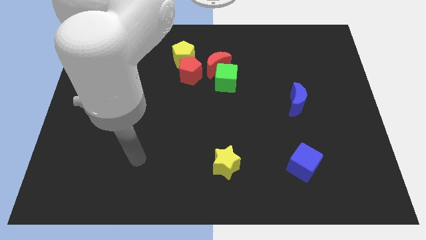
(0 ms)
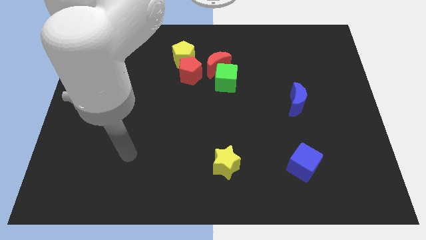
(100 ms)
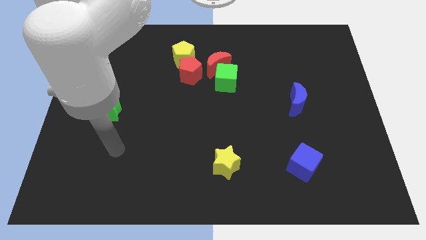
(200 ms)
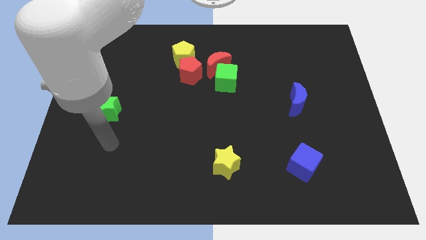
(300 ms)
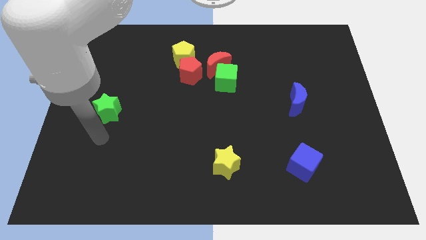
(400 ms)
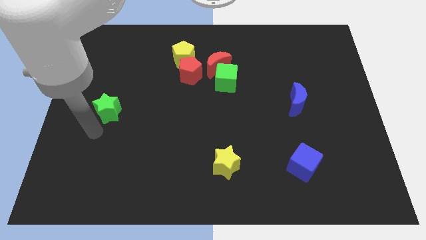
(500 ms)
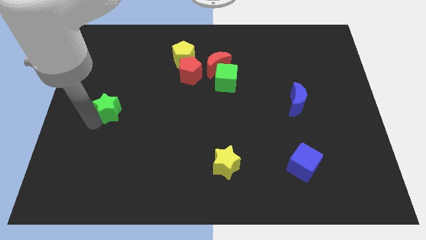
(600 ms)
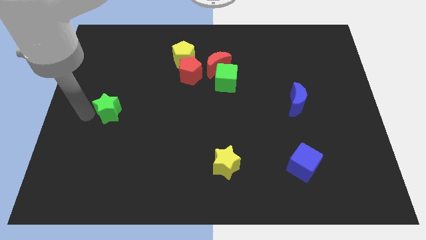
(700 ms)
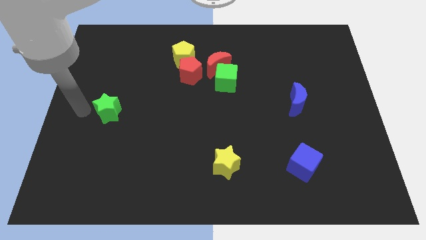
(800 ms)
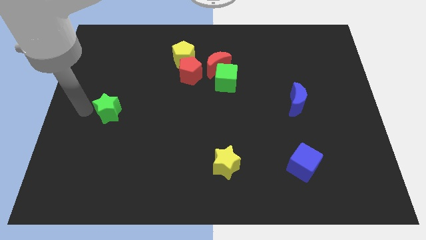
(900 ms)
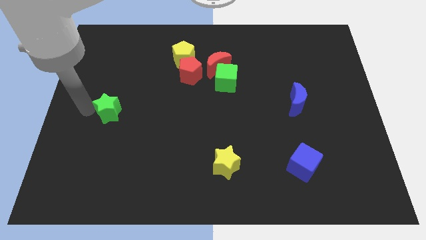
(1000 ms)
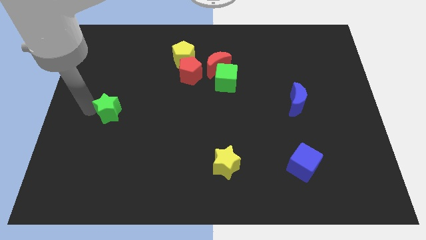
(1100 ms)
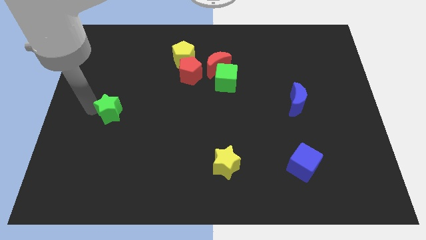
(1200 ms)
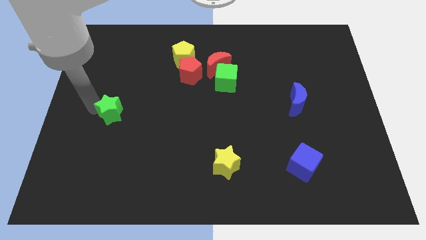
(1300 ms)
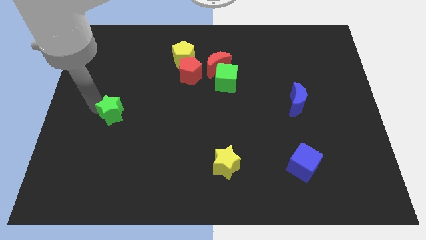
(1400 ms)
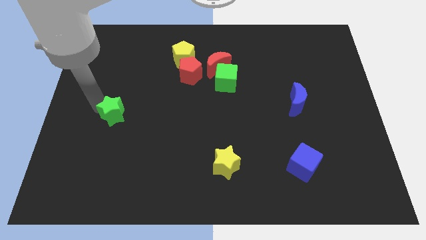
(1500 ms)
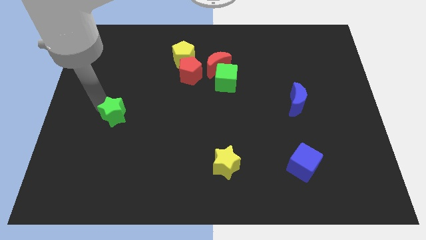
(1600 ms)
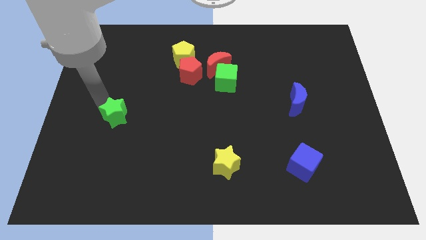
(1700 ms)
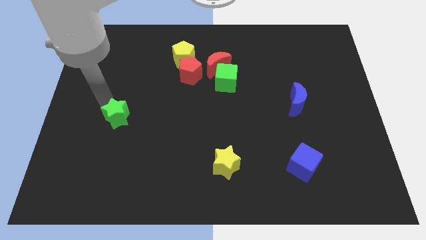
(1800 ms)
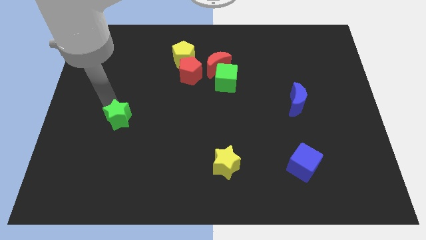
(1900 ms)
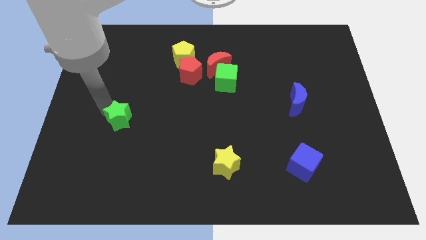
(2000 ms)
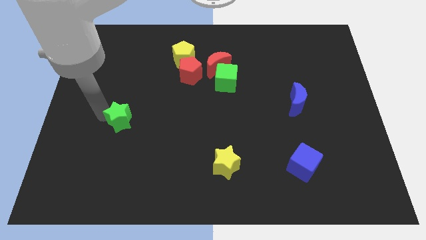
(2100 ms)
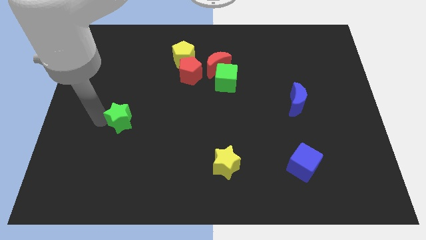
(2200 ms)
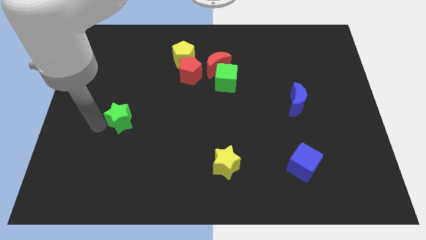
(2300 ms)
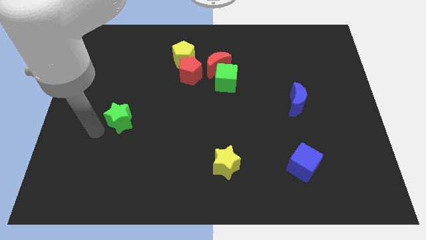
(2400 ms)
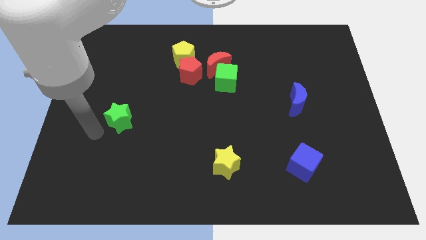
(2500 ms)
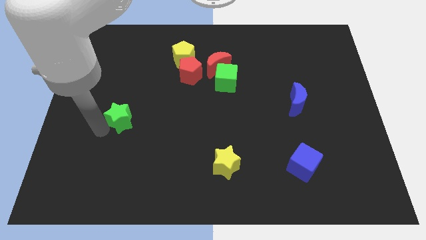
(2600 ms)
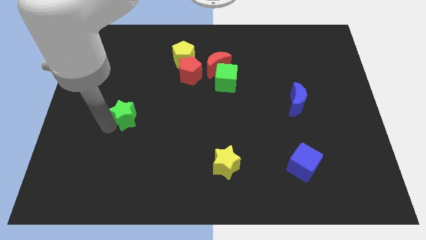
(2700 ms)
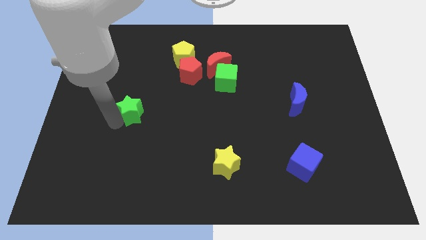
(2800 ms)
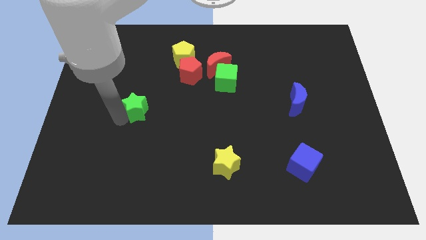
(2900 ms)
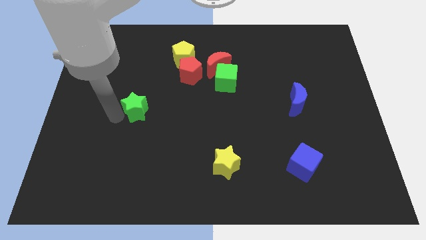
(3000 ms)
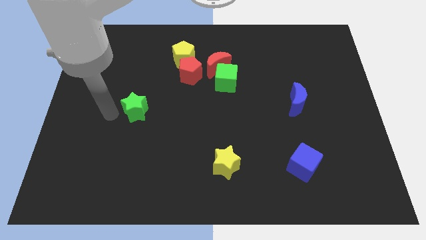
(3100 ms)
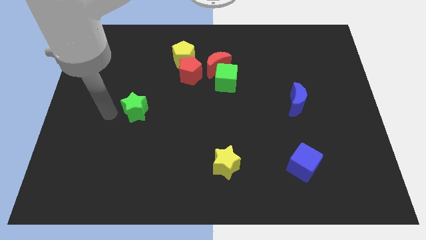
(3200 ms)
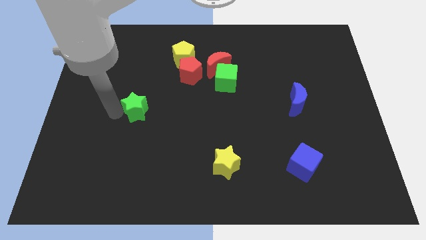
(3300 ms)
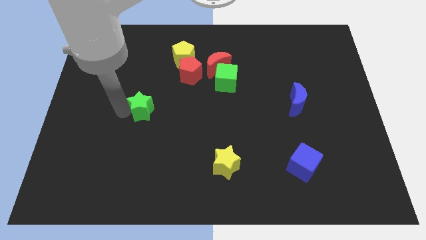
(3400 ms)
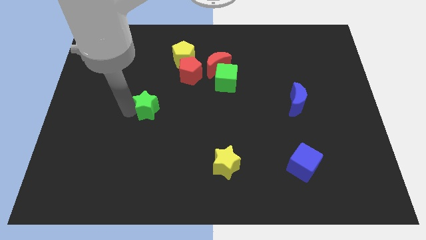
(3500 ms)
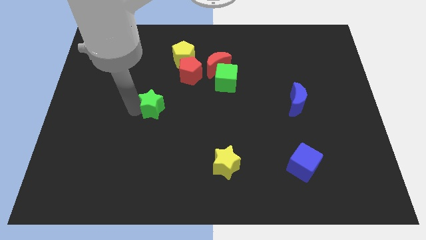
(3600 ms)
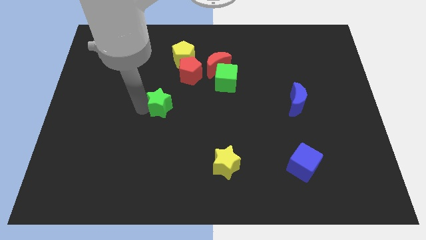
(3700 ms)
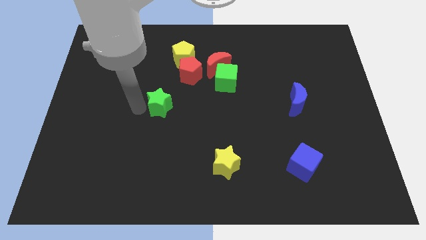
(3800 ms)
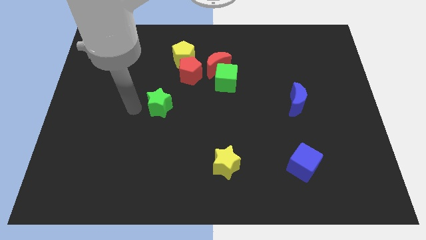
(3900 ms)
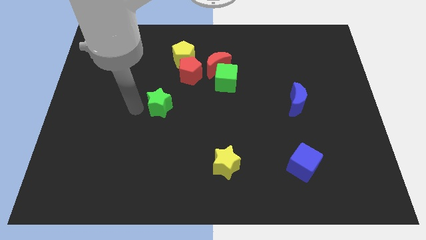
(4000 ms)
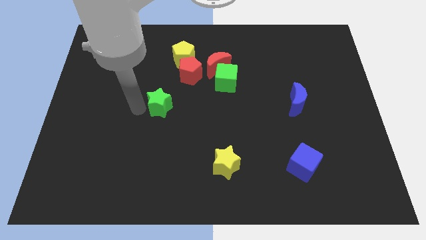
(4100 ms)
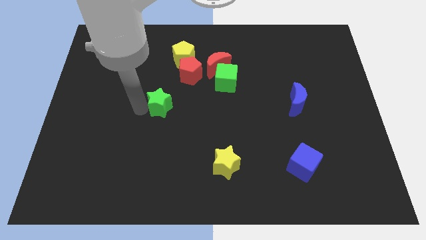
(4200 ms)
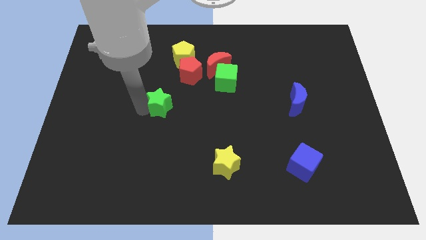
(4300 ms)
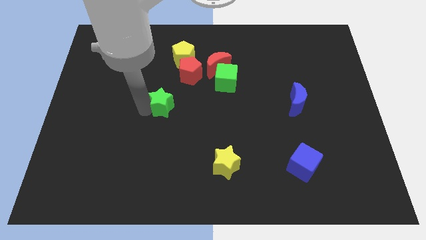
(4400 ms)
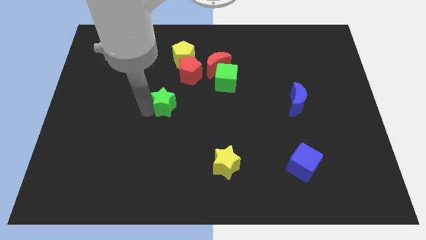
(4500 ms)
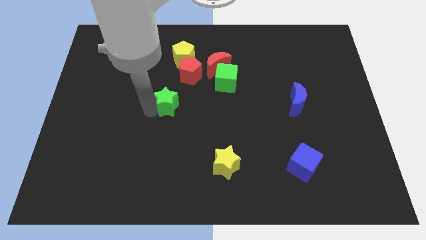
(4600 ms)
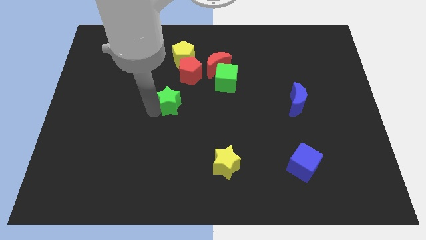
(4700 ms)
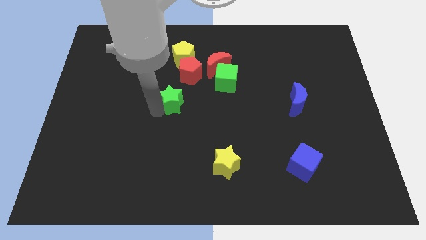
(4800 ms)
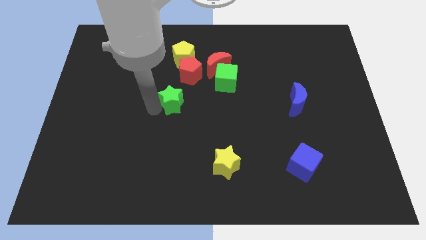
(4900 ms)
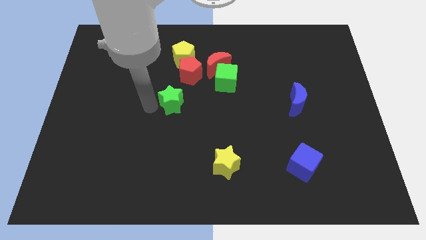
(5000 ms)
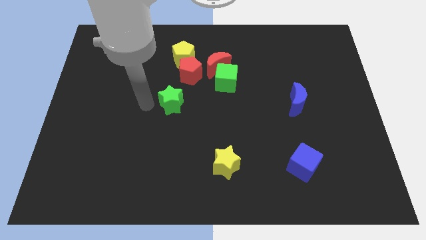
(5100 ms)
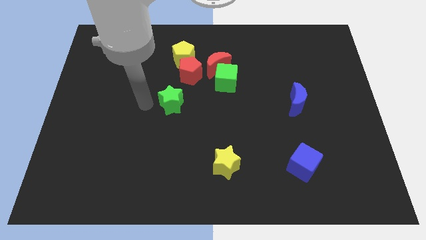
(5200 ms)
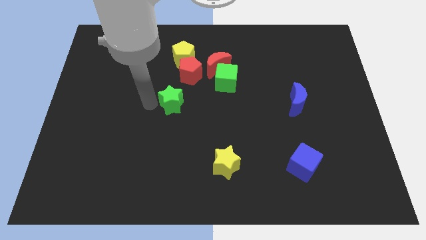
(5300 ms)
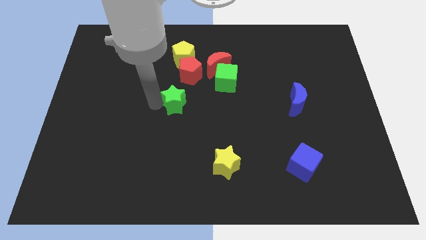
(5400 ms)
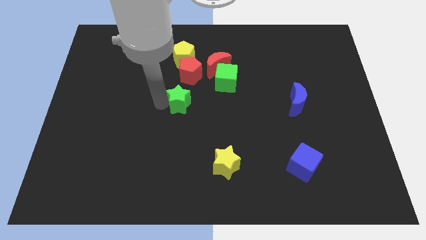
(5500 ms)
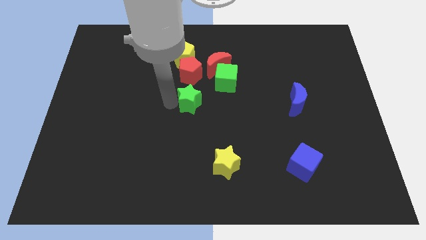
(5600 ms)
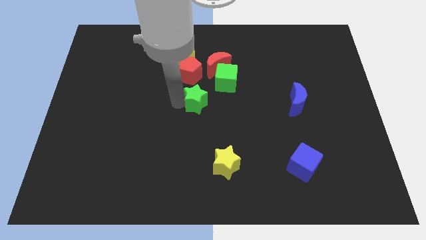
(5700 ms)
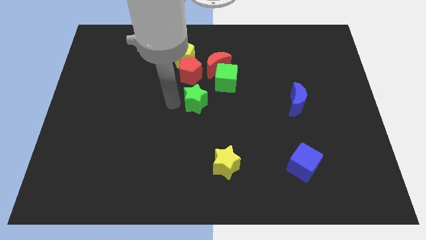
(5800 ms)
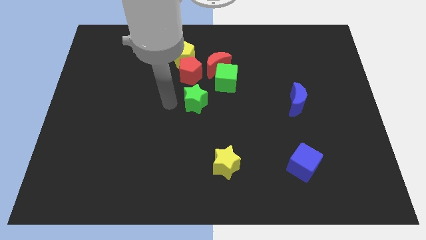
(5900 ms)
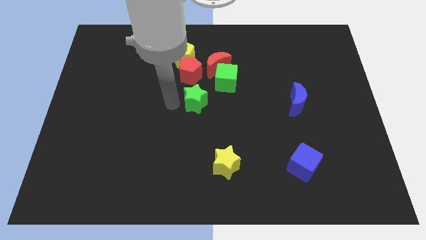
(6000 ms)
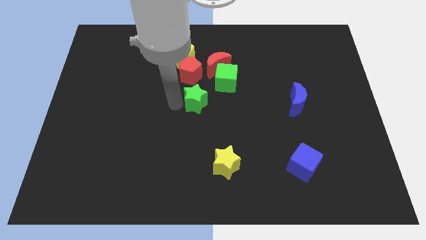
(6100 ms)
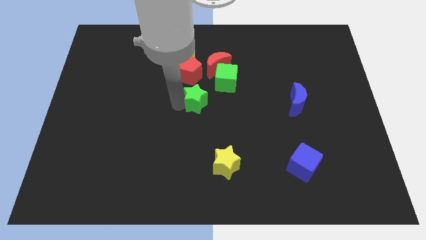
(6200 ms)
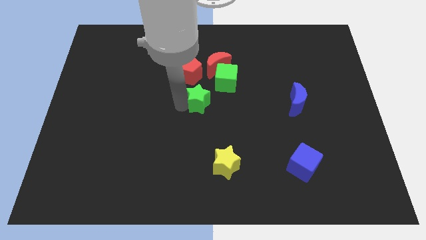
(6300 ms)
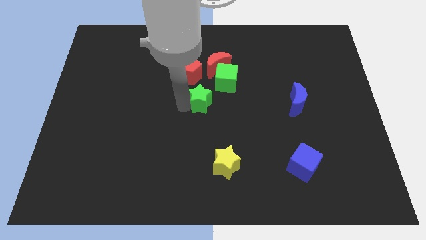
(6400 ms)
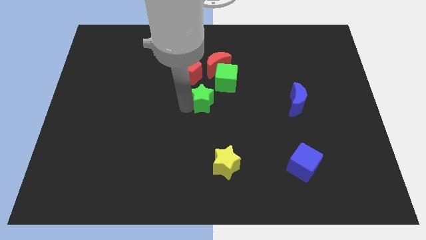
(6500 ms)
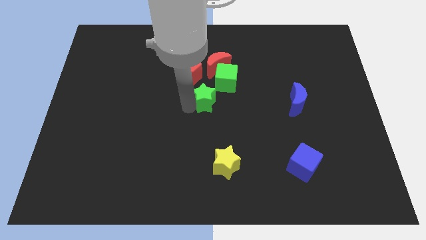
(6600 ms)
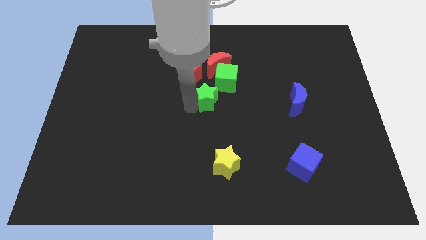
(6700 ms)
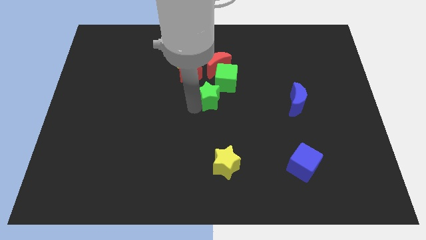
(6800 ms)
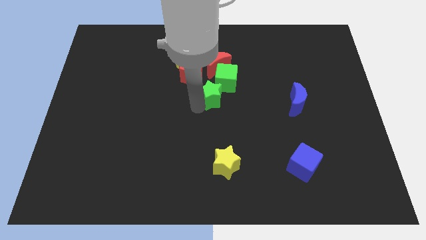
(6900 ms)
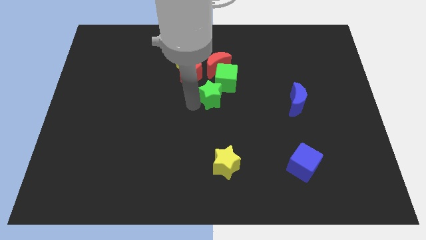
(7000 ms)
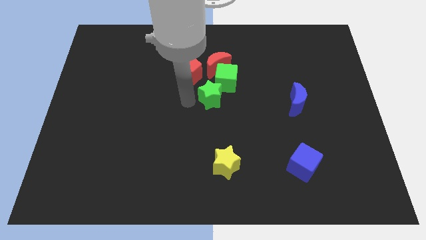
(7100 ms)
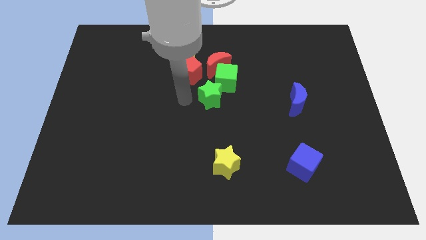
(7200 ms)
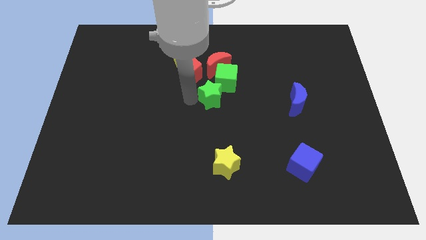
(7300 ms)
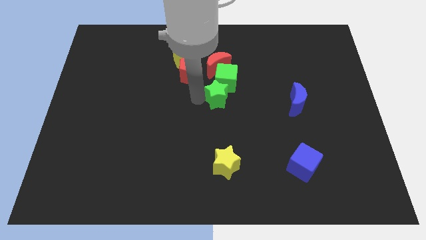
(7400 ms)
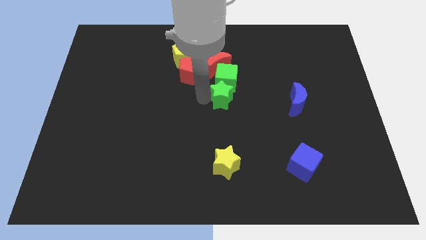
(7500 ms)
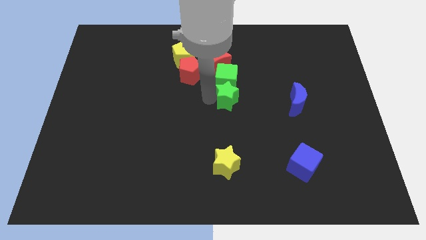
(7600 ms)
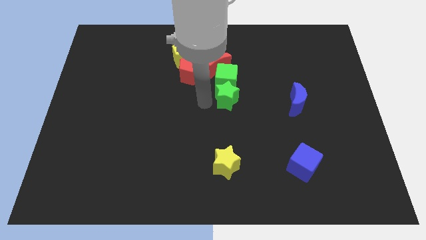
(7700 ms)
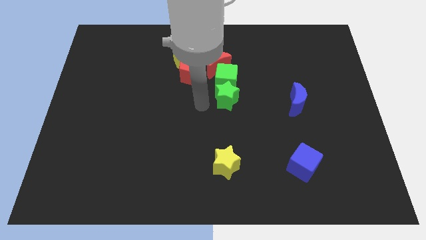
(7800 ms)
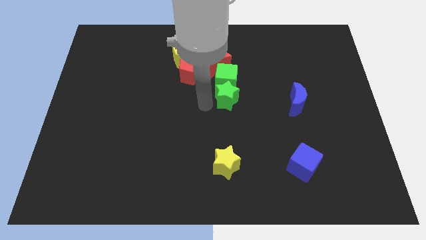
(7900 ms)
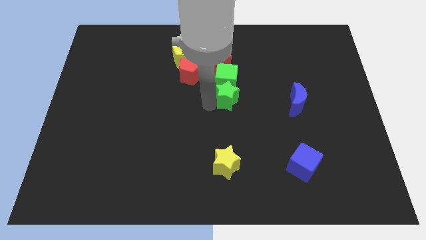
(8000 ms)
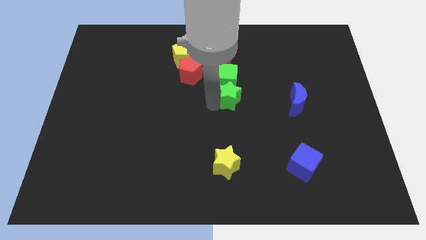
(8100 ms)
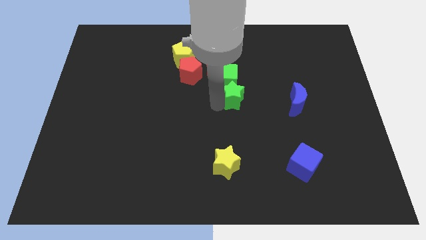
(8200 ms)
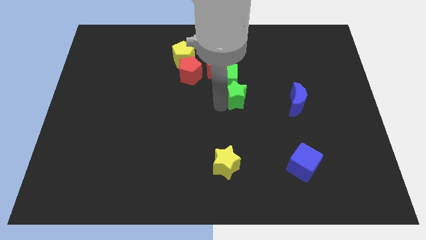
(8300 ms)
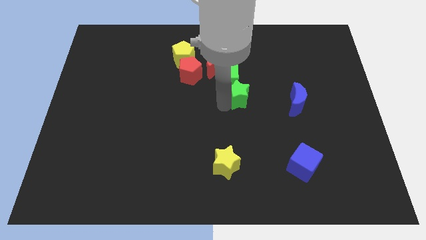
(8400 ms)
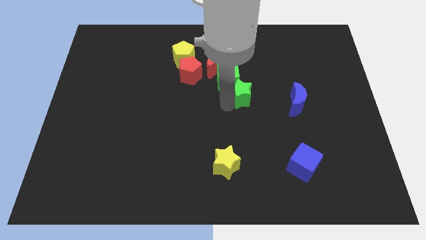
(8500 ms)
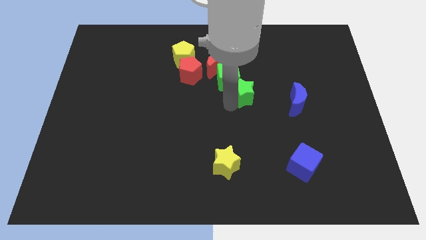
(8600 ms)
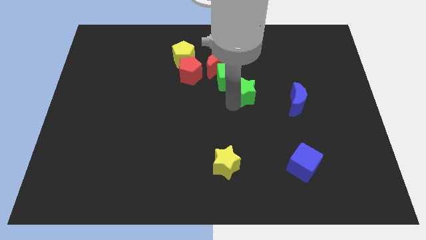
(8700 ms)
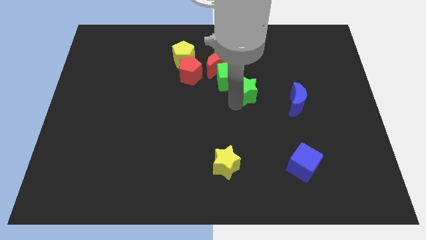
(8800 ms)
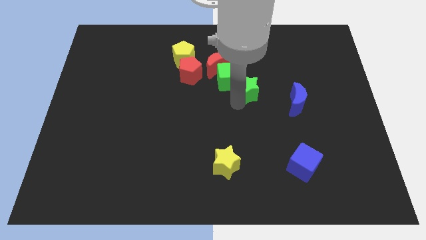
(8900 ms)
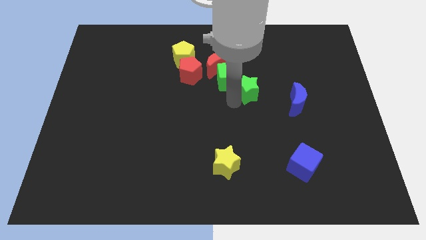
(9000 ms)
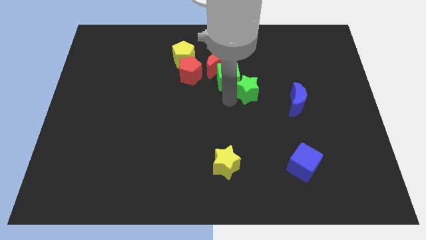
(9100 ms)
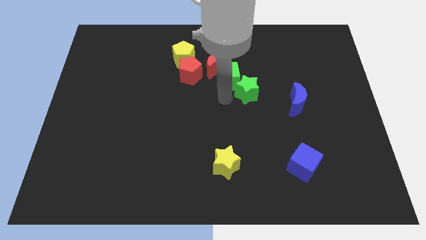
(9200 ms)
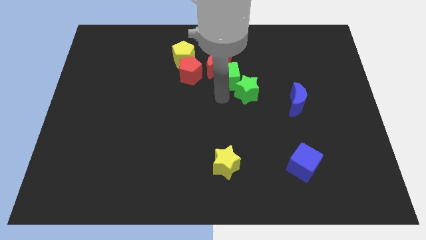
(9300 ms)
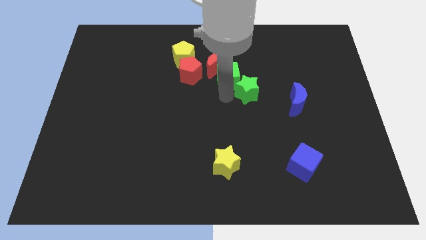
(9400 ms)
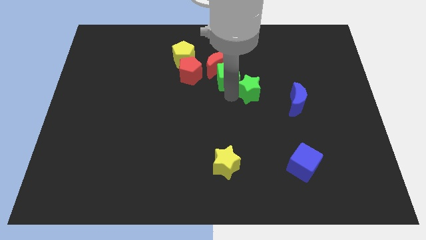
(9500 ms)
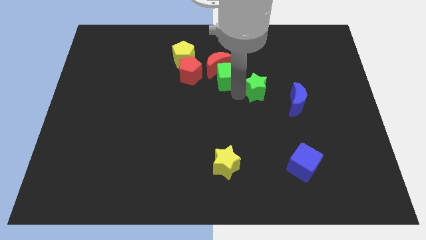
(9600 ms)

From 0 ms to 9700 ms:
move the green star to the top left side of the blue moon
